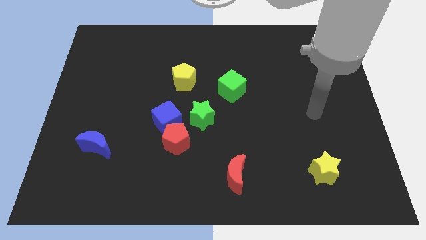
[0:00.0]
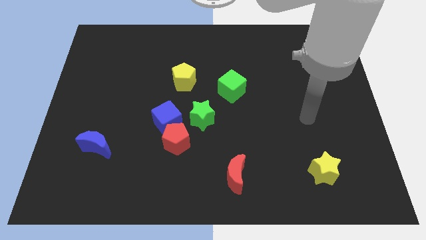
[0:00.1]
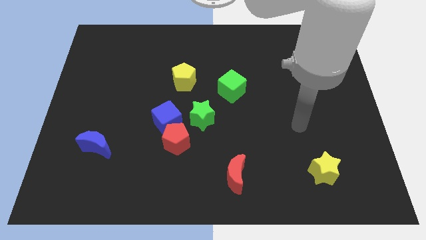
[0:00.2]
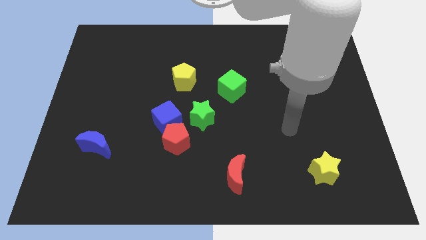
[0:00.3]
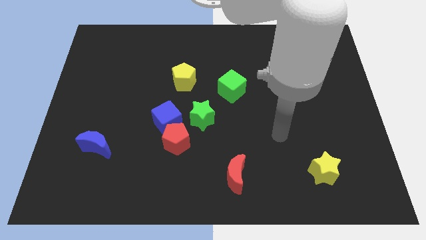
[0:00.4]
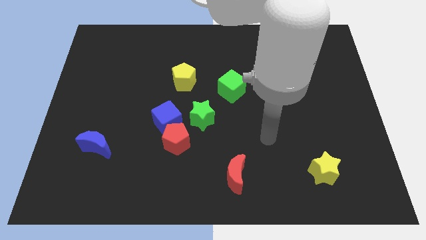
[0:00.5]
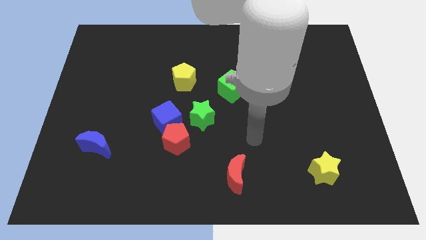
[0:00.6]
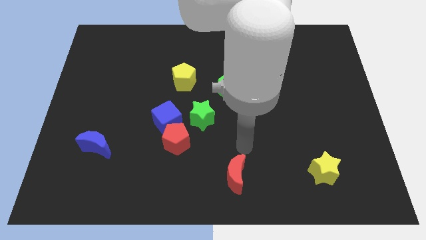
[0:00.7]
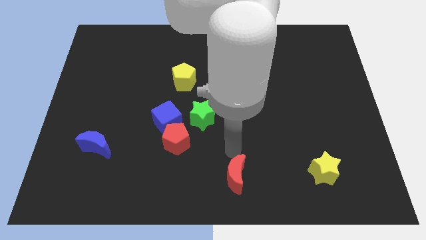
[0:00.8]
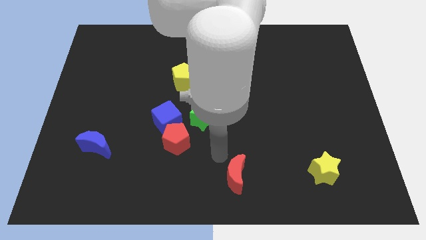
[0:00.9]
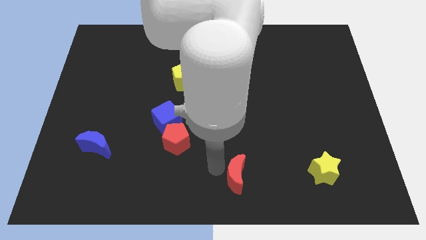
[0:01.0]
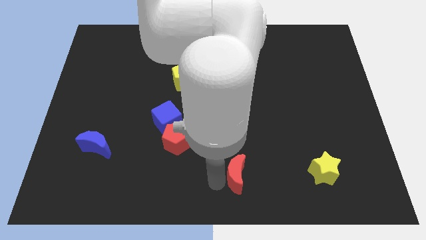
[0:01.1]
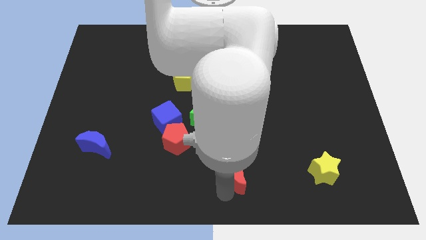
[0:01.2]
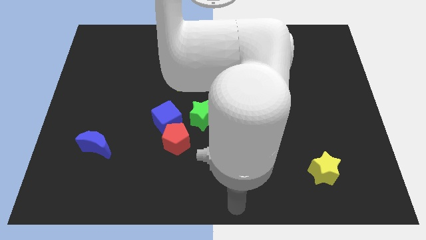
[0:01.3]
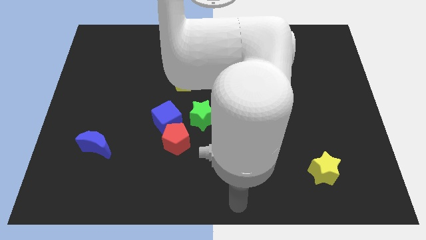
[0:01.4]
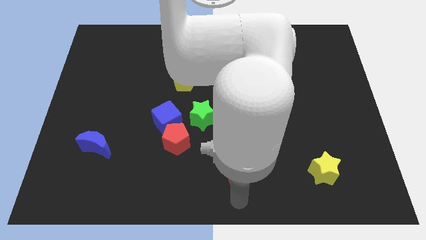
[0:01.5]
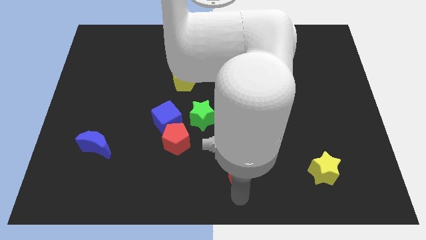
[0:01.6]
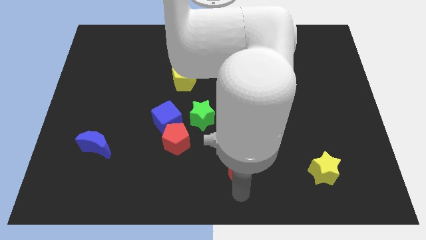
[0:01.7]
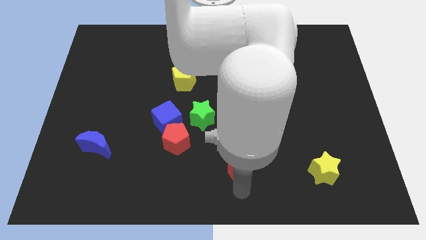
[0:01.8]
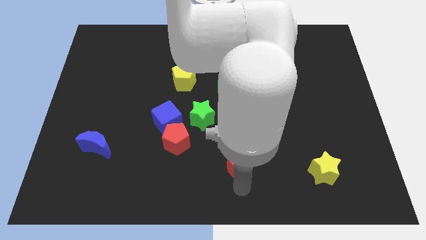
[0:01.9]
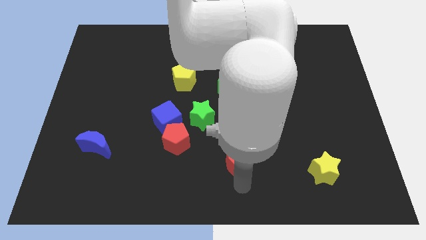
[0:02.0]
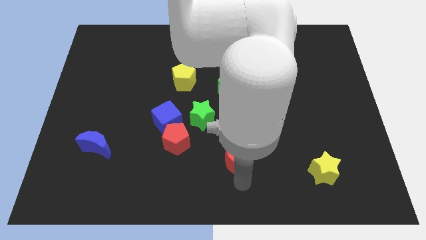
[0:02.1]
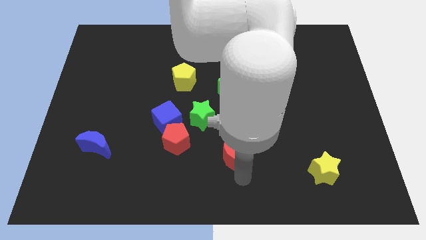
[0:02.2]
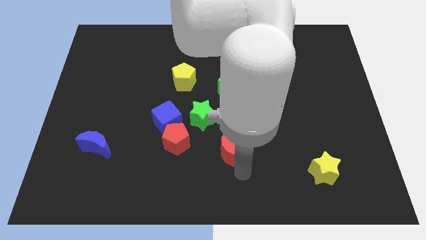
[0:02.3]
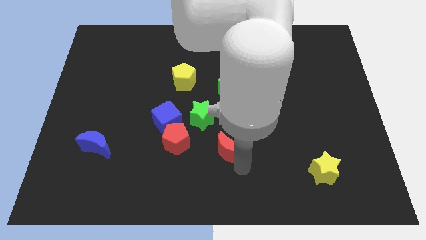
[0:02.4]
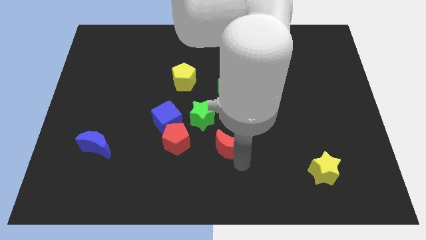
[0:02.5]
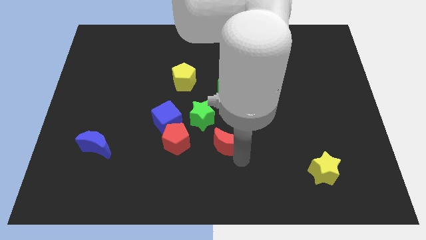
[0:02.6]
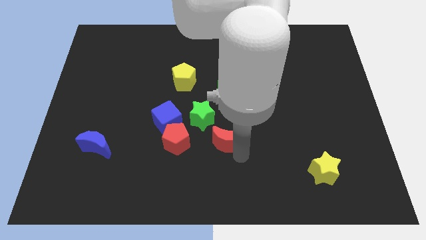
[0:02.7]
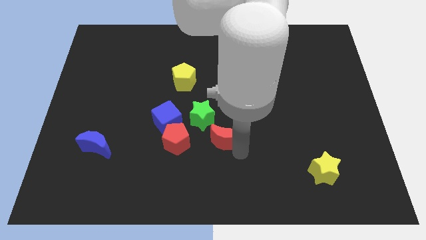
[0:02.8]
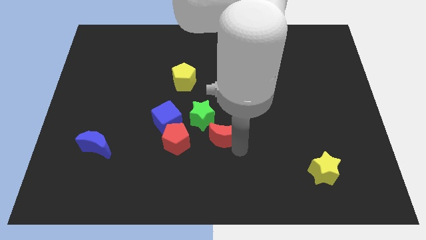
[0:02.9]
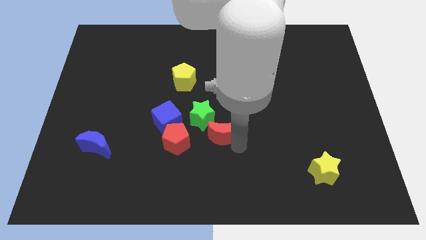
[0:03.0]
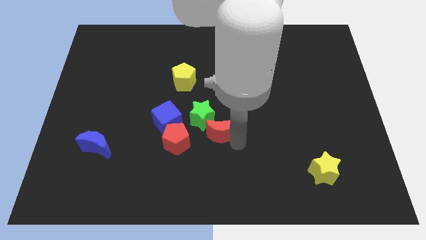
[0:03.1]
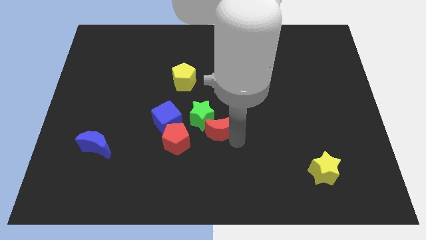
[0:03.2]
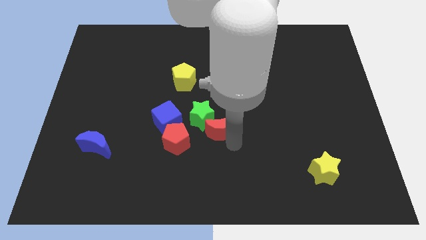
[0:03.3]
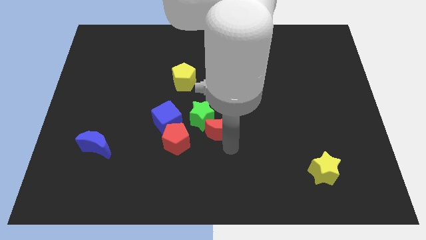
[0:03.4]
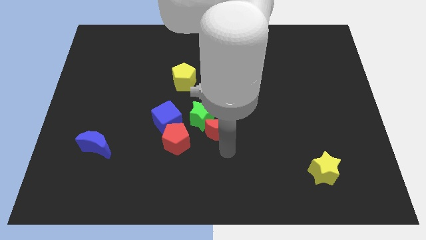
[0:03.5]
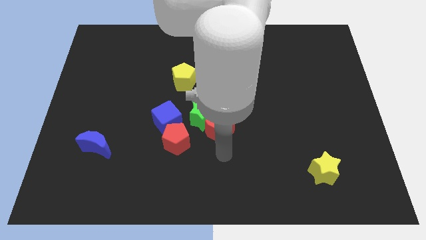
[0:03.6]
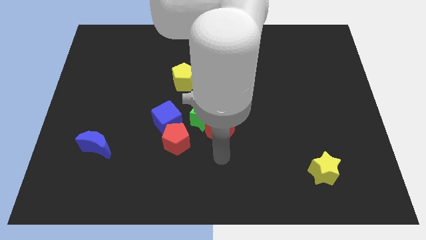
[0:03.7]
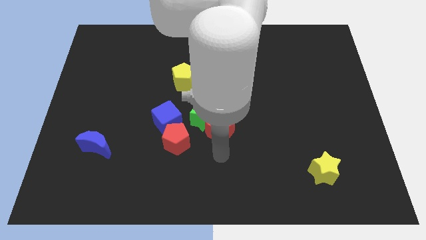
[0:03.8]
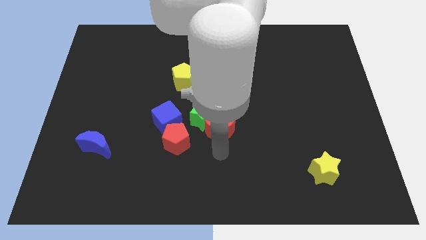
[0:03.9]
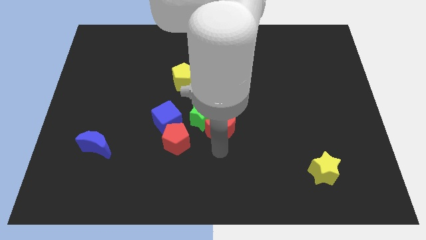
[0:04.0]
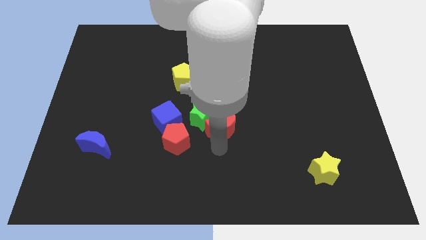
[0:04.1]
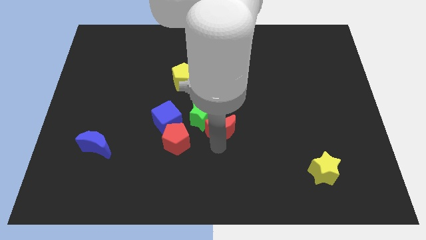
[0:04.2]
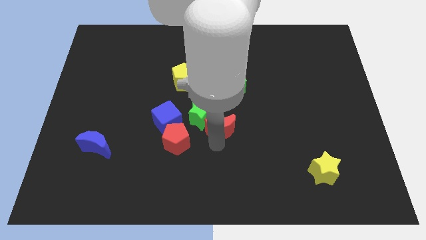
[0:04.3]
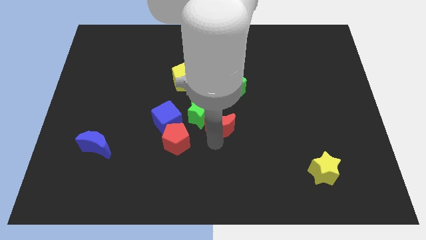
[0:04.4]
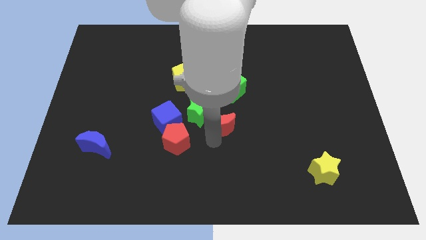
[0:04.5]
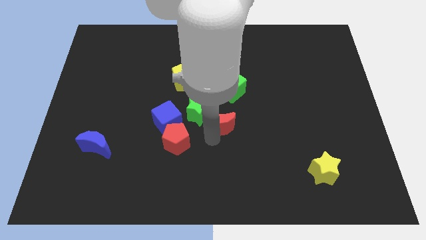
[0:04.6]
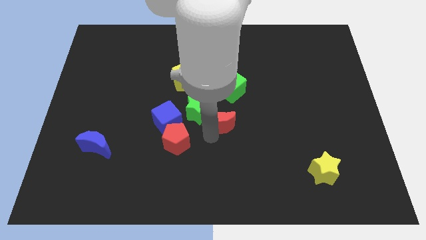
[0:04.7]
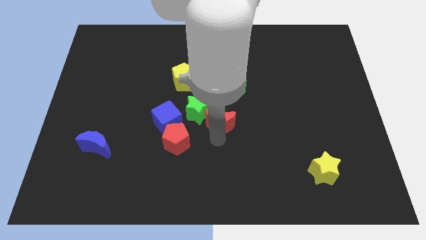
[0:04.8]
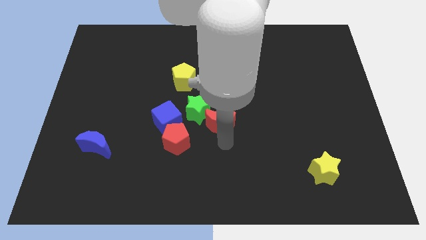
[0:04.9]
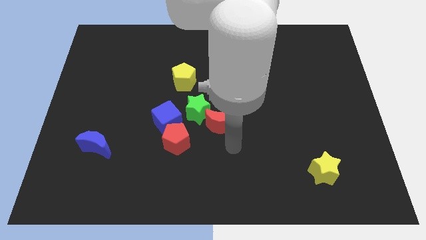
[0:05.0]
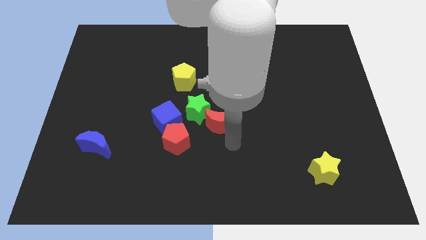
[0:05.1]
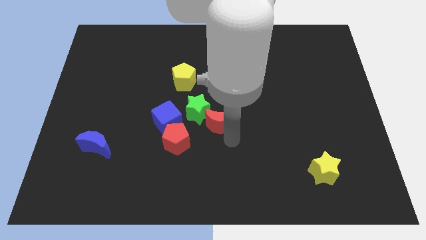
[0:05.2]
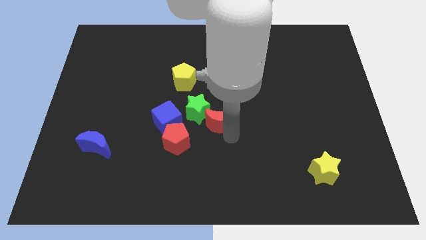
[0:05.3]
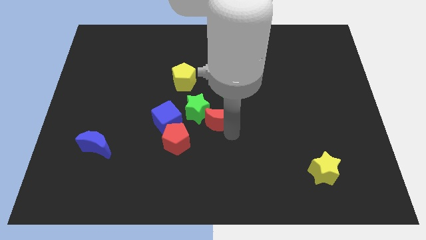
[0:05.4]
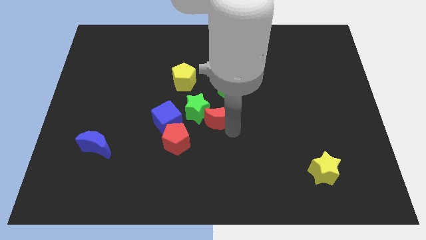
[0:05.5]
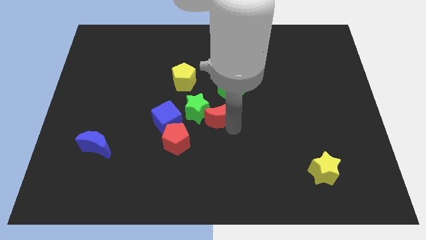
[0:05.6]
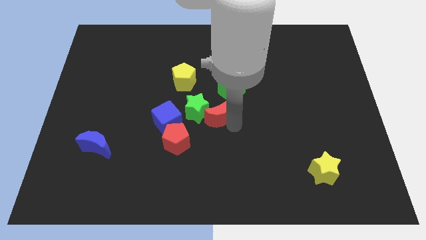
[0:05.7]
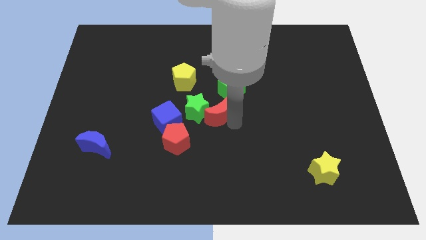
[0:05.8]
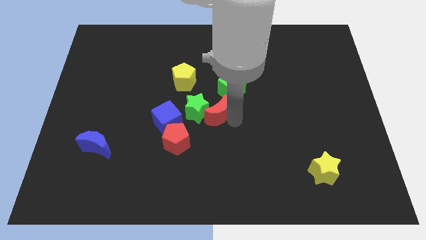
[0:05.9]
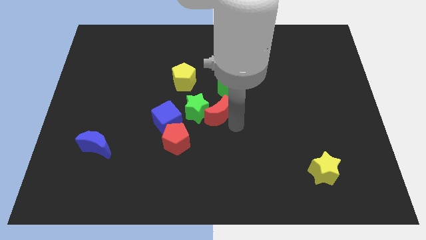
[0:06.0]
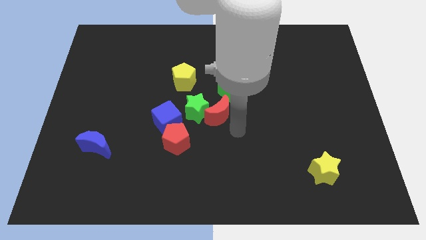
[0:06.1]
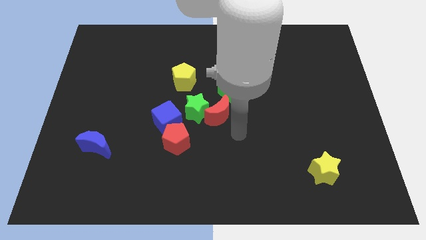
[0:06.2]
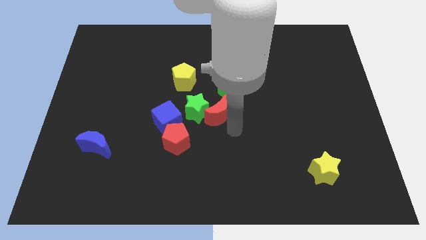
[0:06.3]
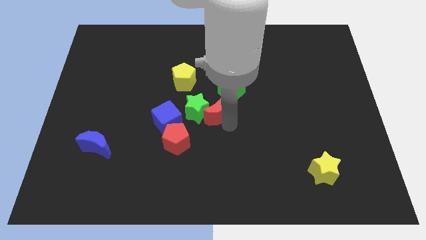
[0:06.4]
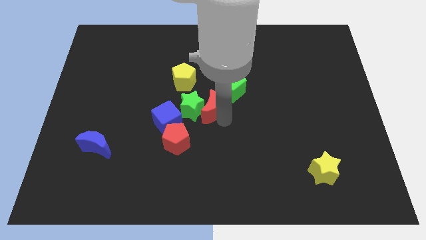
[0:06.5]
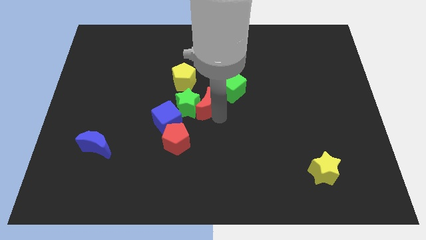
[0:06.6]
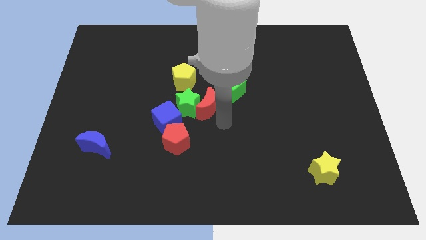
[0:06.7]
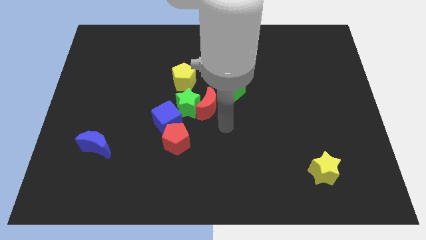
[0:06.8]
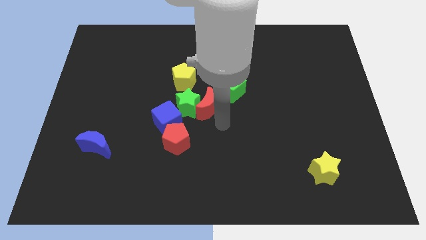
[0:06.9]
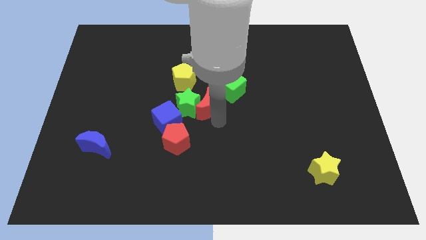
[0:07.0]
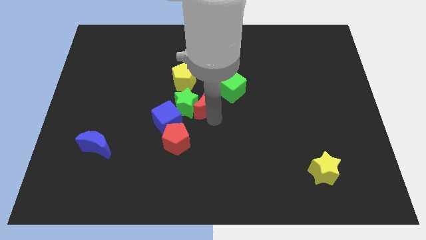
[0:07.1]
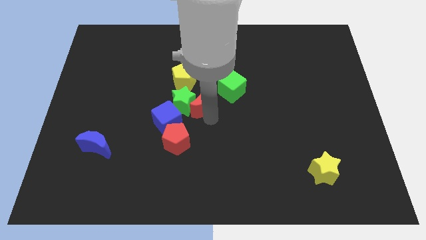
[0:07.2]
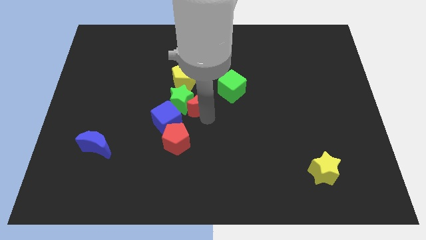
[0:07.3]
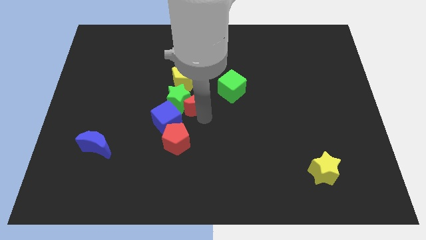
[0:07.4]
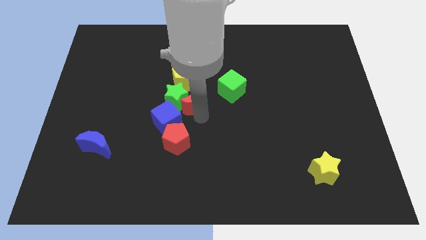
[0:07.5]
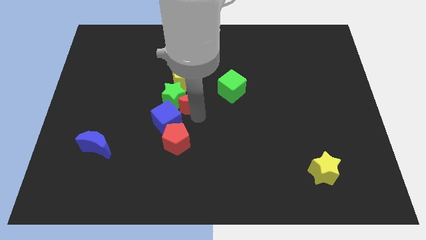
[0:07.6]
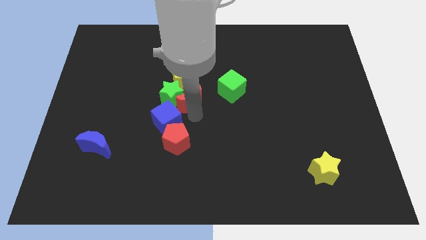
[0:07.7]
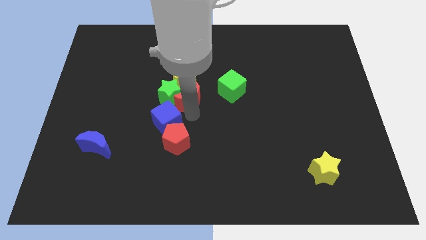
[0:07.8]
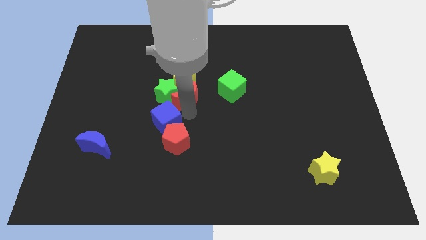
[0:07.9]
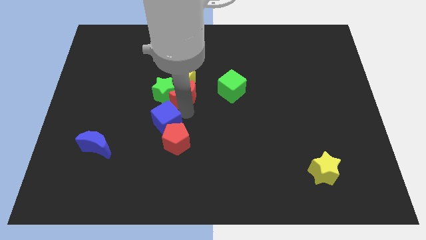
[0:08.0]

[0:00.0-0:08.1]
slide the red moon close to the yellow pentagon
